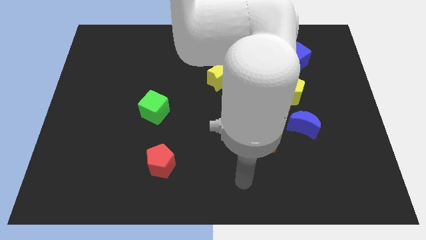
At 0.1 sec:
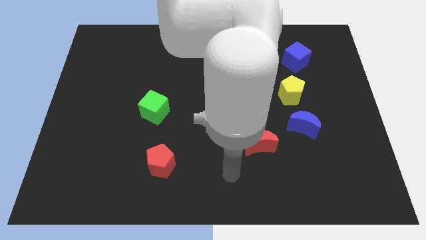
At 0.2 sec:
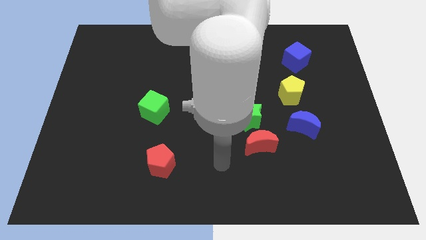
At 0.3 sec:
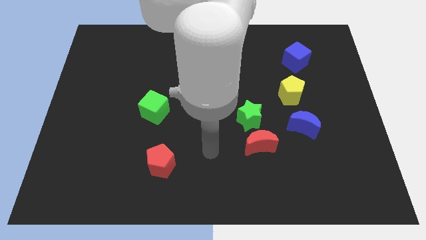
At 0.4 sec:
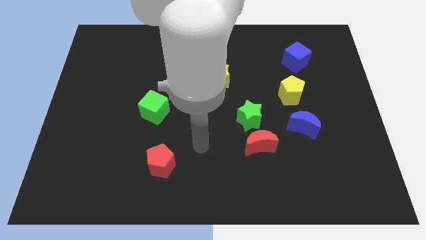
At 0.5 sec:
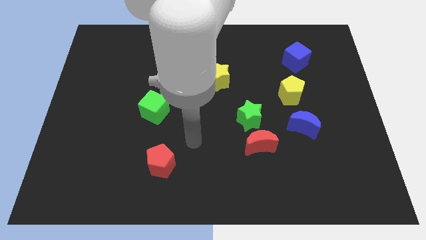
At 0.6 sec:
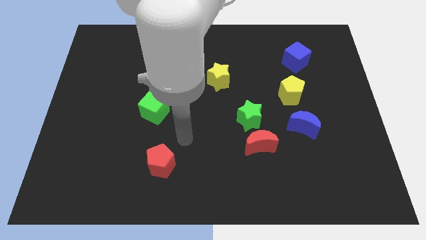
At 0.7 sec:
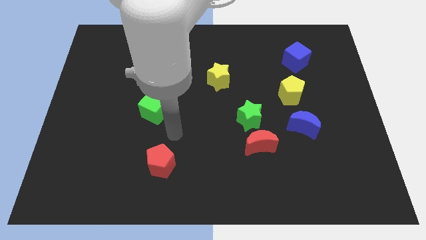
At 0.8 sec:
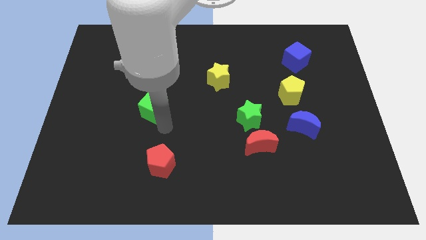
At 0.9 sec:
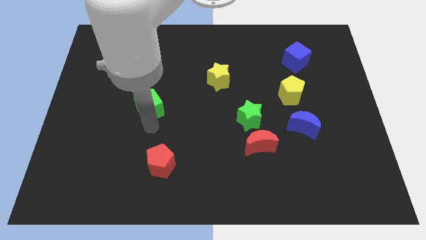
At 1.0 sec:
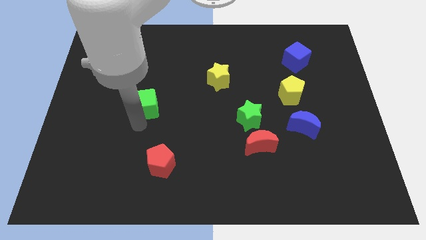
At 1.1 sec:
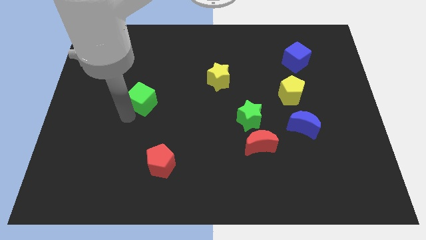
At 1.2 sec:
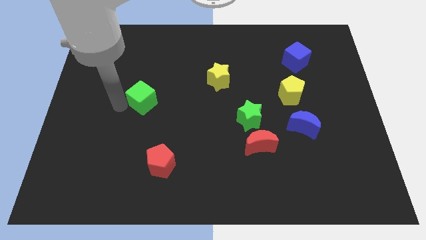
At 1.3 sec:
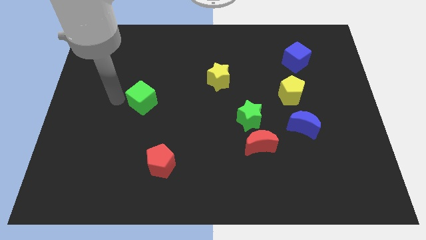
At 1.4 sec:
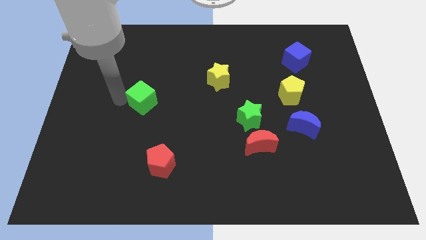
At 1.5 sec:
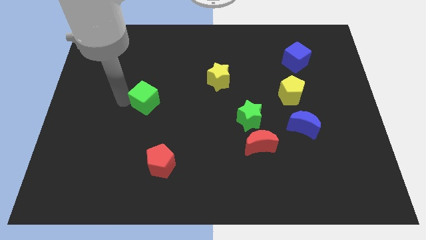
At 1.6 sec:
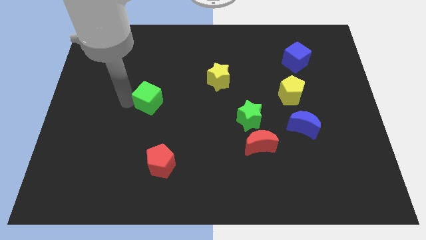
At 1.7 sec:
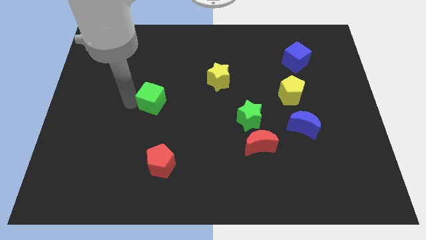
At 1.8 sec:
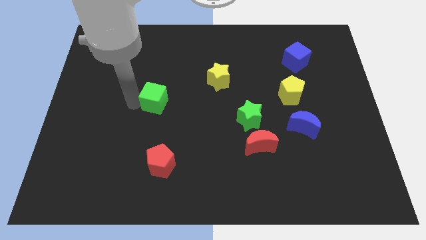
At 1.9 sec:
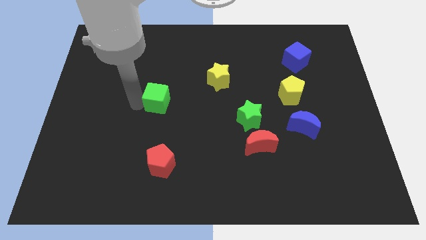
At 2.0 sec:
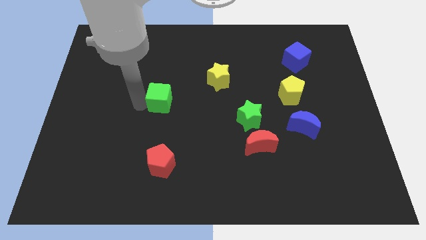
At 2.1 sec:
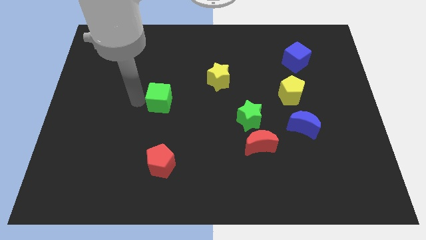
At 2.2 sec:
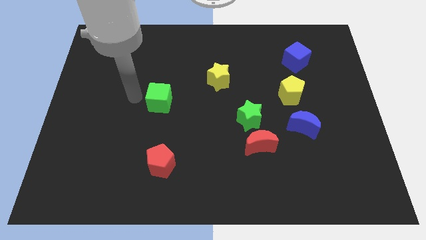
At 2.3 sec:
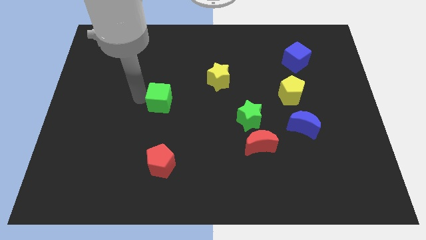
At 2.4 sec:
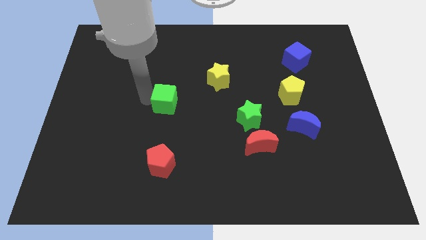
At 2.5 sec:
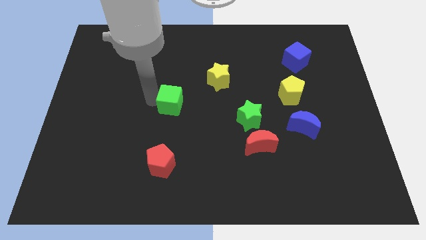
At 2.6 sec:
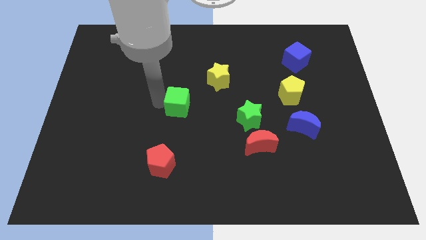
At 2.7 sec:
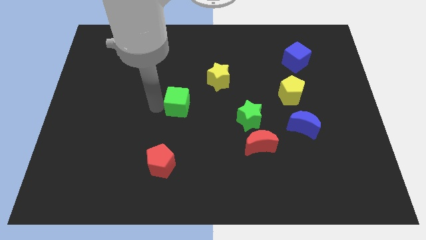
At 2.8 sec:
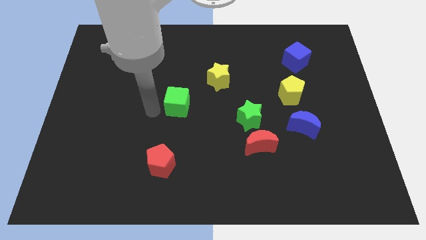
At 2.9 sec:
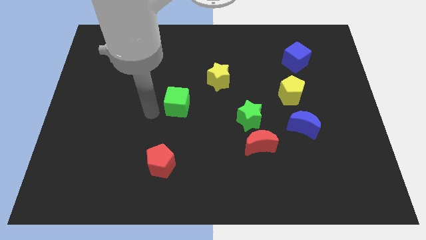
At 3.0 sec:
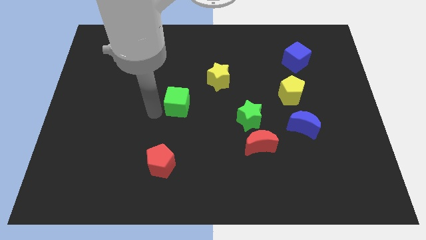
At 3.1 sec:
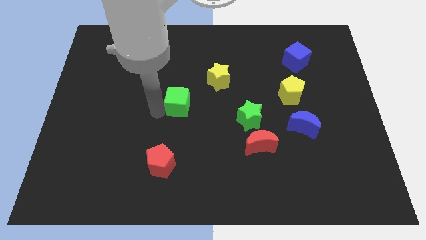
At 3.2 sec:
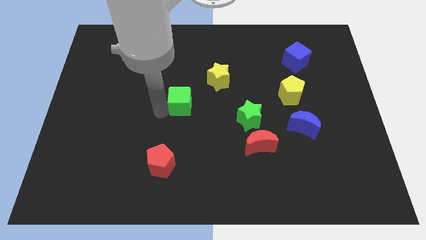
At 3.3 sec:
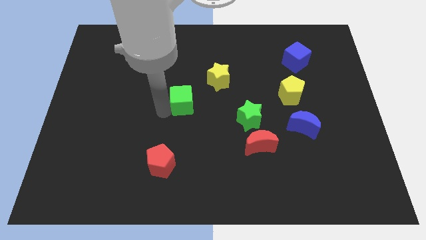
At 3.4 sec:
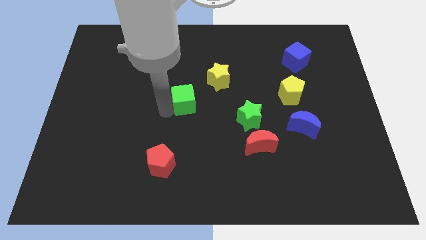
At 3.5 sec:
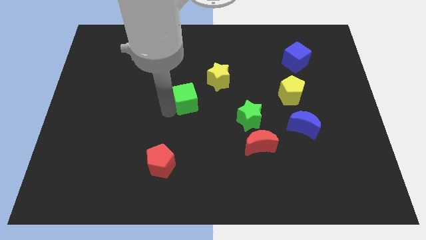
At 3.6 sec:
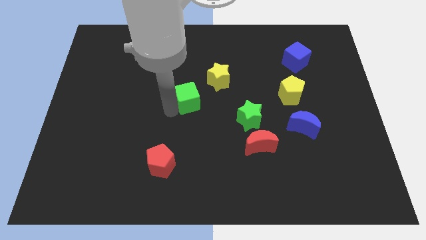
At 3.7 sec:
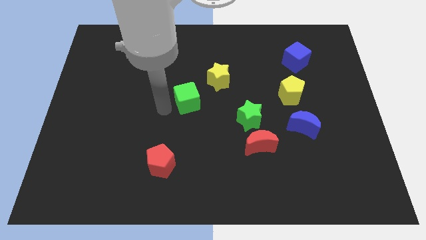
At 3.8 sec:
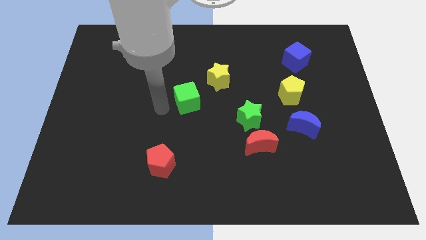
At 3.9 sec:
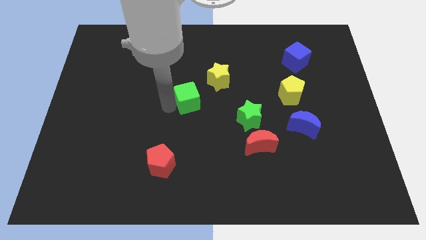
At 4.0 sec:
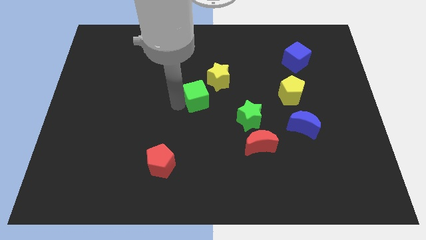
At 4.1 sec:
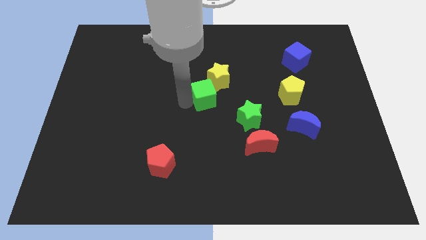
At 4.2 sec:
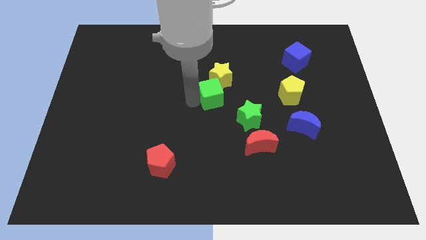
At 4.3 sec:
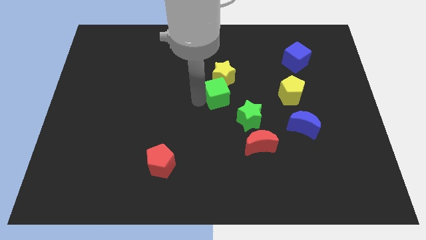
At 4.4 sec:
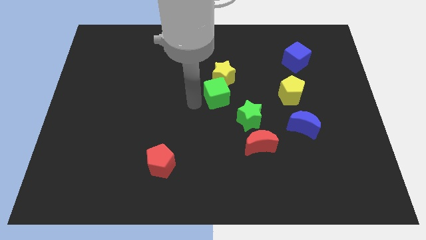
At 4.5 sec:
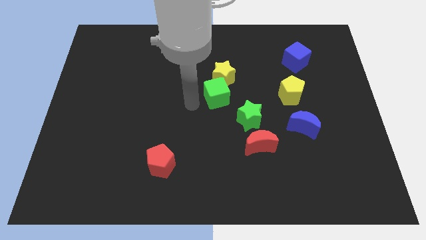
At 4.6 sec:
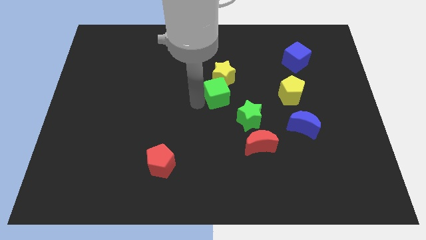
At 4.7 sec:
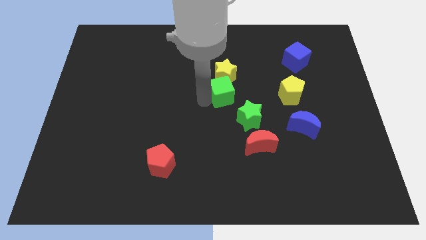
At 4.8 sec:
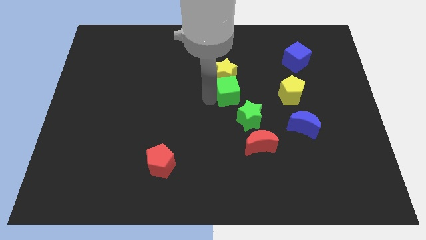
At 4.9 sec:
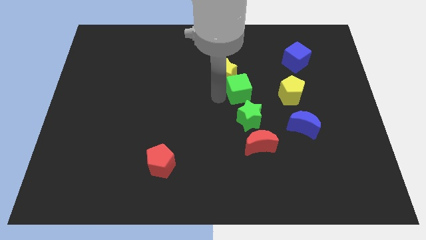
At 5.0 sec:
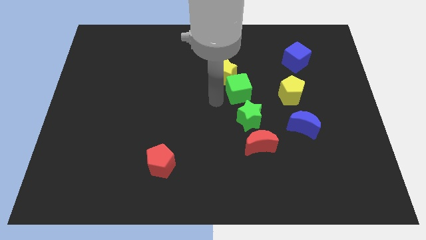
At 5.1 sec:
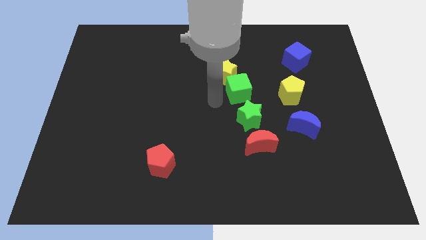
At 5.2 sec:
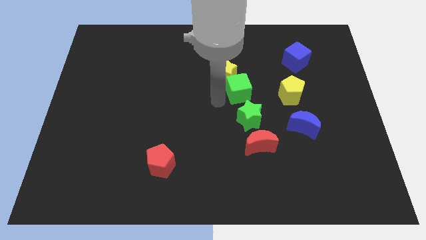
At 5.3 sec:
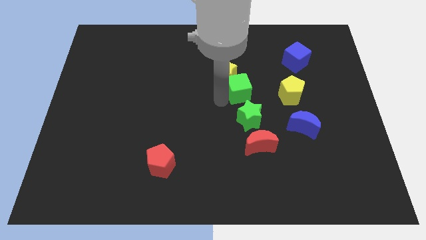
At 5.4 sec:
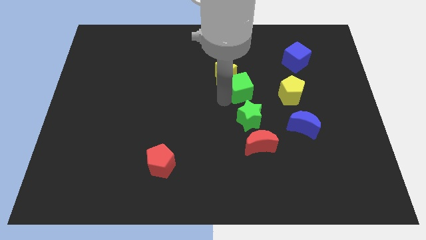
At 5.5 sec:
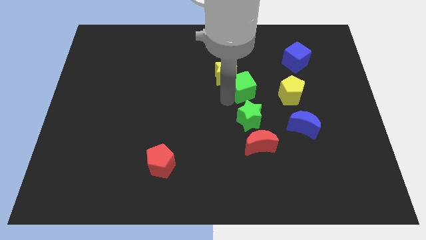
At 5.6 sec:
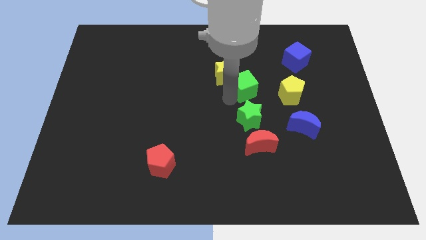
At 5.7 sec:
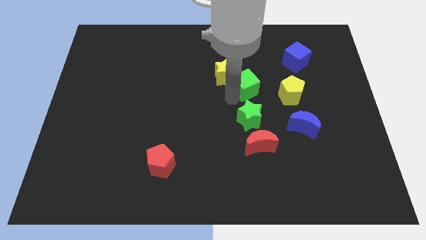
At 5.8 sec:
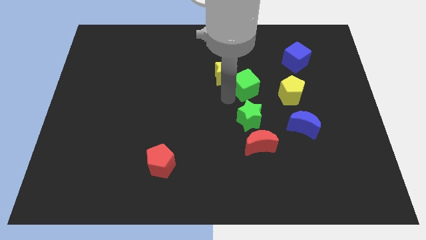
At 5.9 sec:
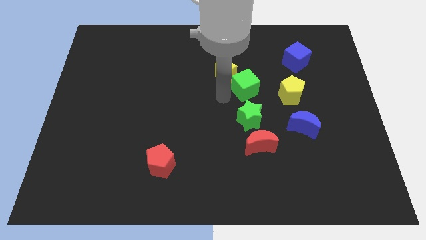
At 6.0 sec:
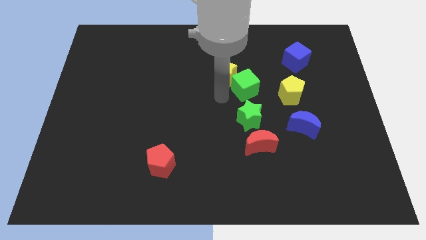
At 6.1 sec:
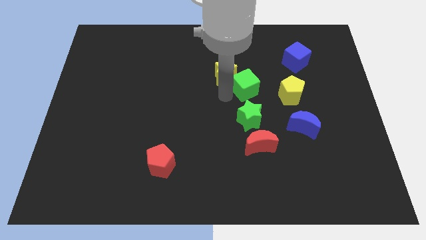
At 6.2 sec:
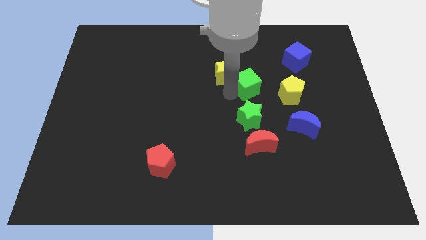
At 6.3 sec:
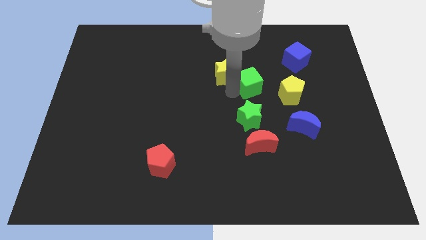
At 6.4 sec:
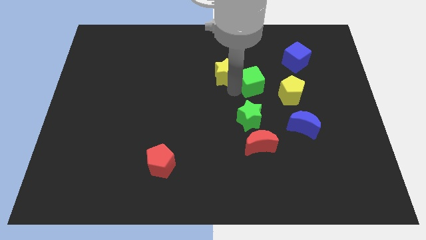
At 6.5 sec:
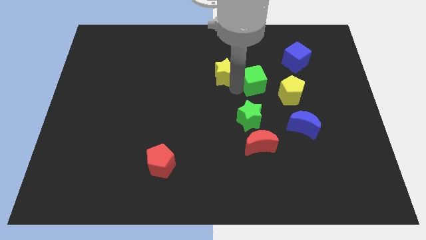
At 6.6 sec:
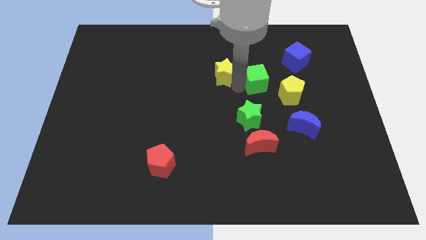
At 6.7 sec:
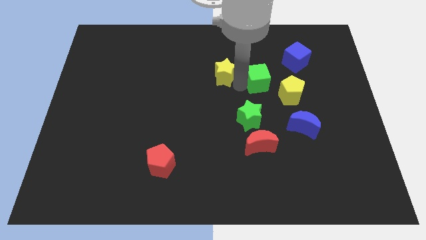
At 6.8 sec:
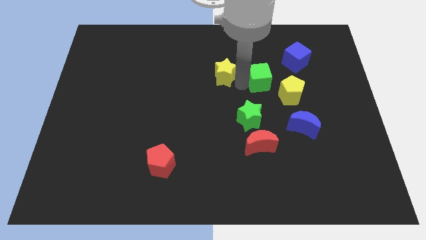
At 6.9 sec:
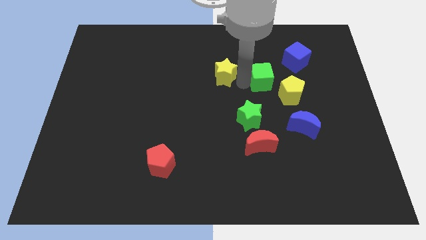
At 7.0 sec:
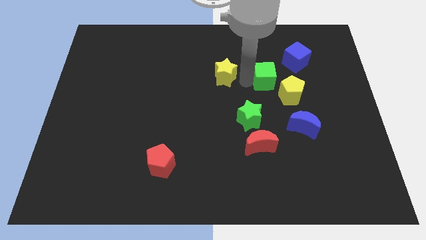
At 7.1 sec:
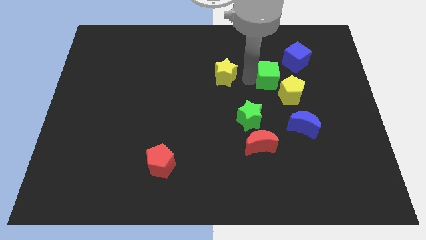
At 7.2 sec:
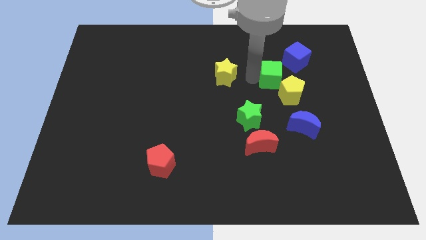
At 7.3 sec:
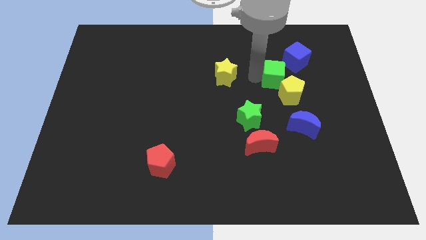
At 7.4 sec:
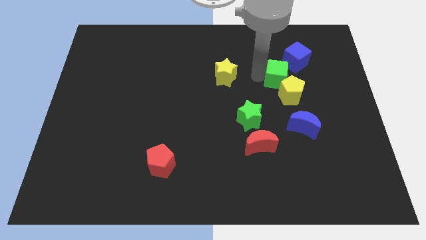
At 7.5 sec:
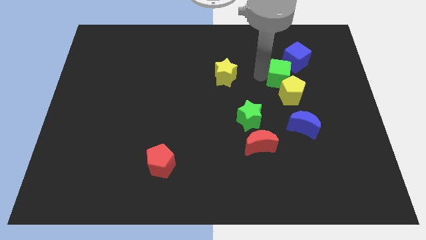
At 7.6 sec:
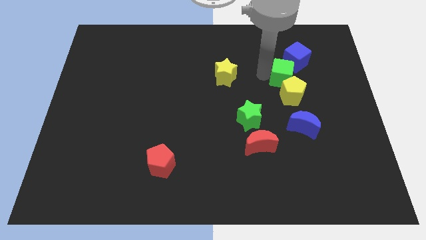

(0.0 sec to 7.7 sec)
put the green cube above the blue moon
